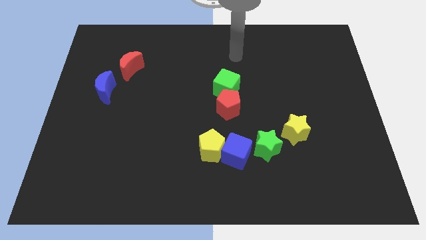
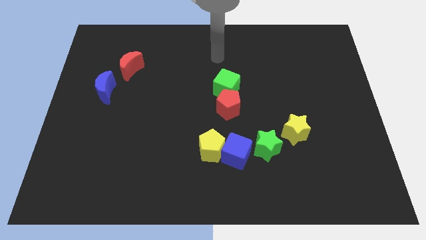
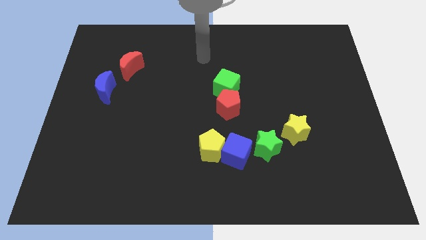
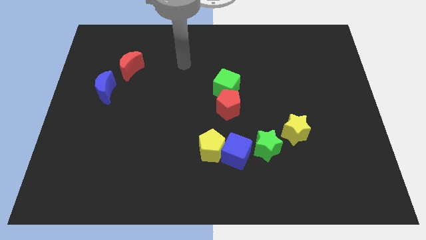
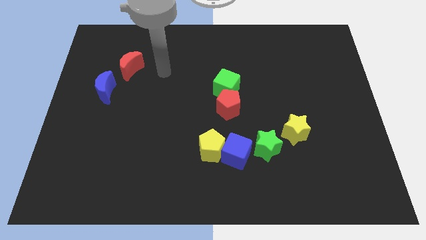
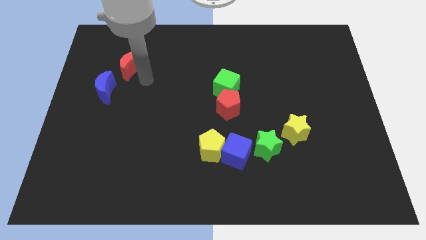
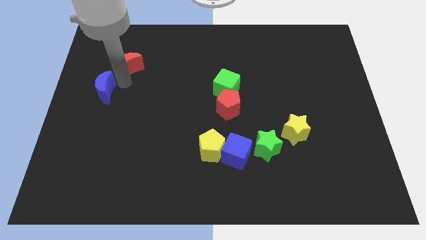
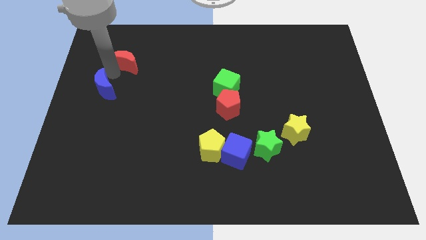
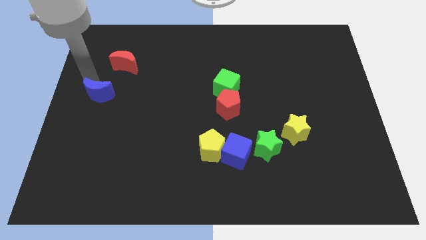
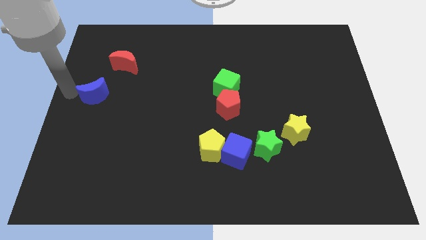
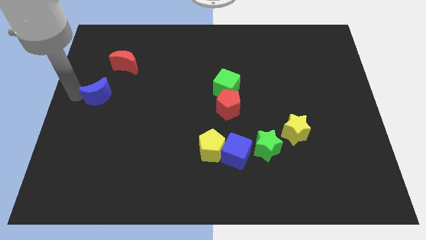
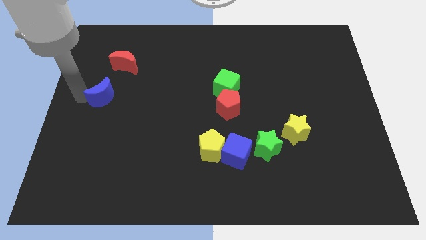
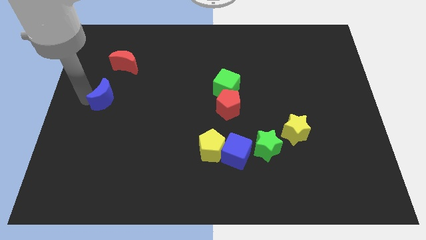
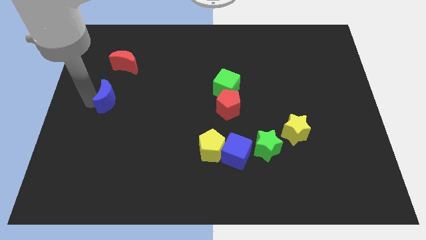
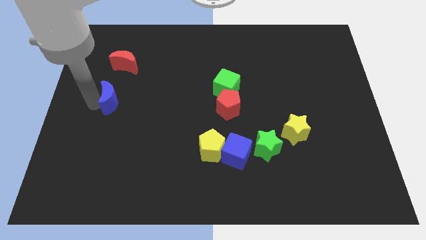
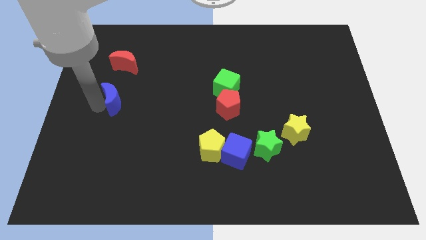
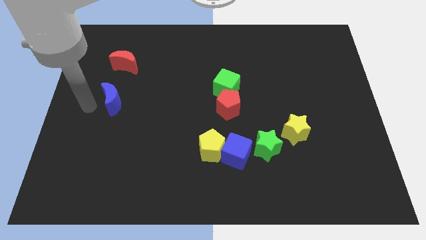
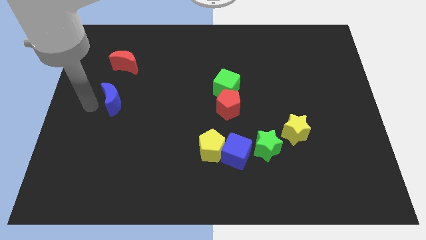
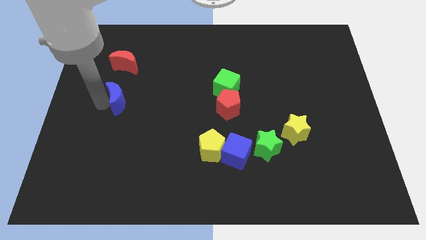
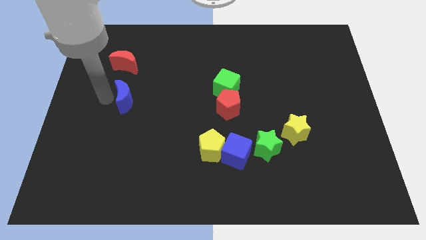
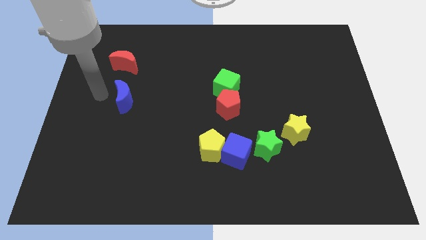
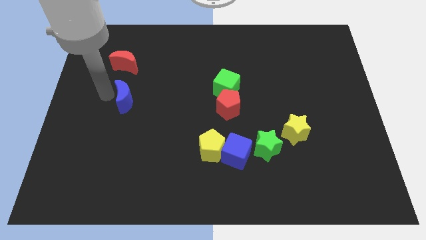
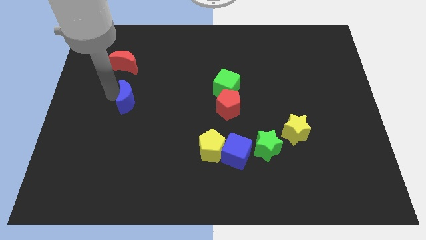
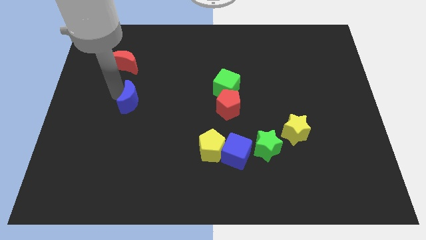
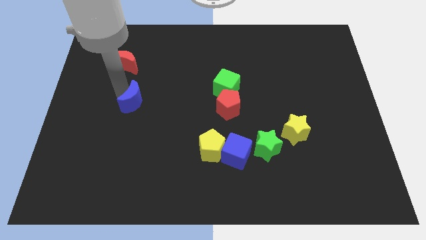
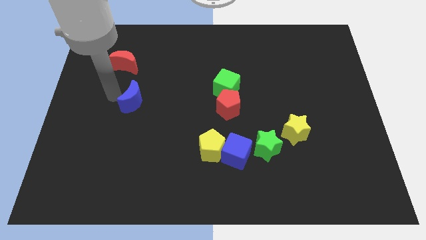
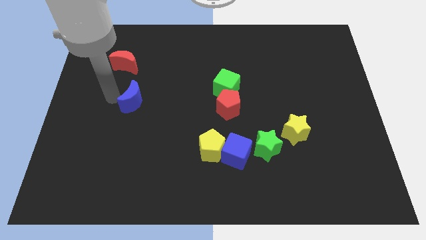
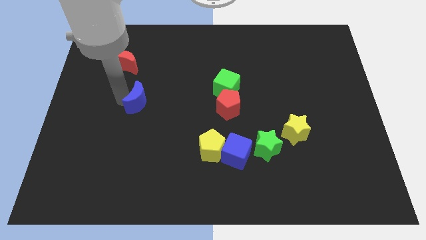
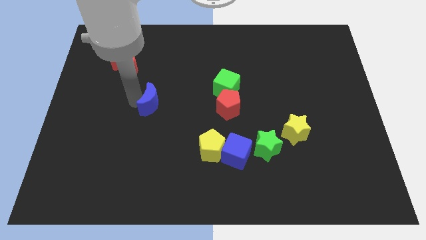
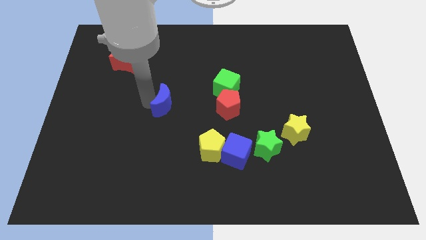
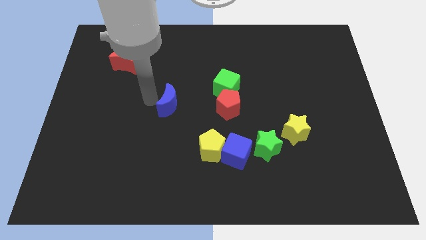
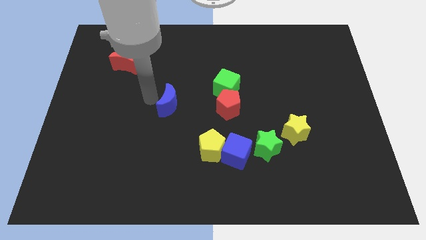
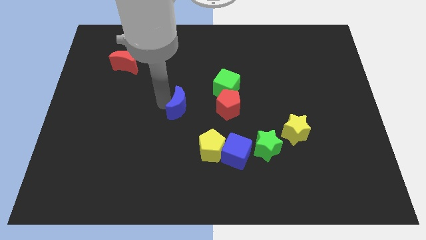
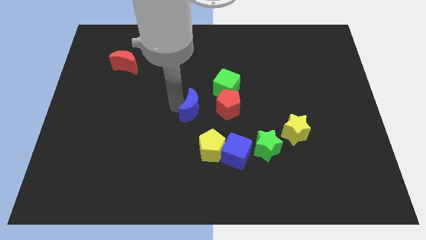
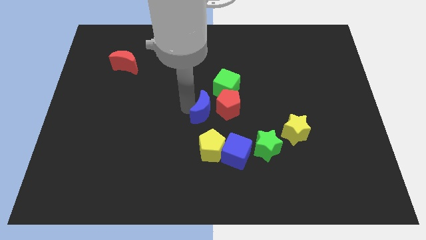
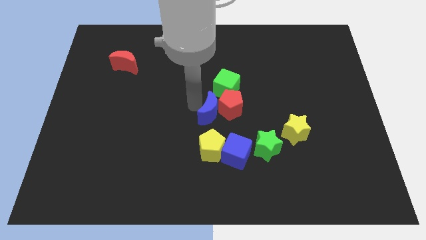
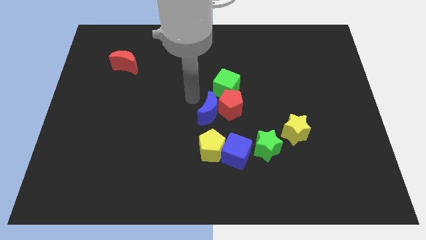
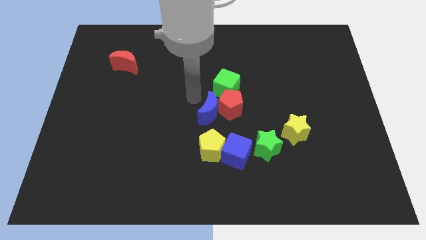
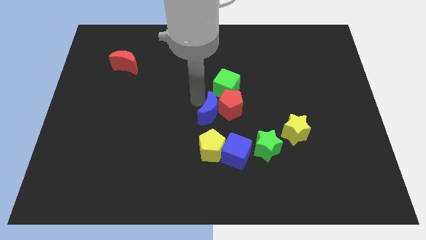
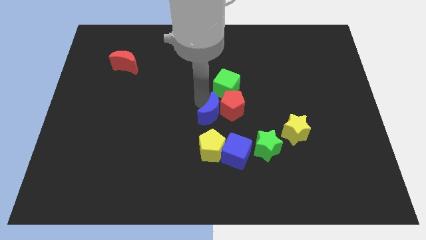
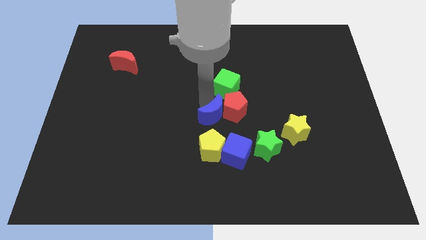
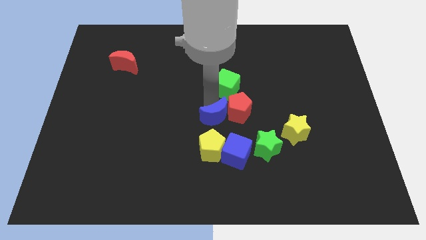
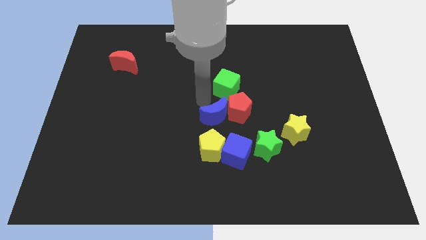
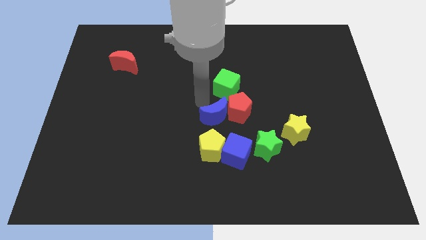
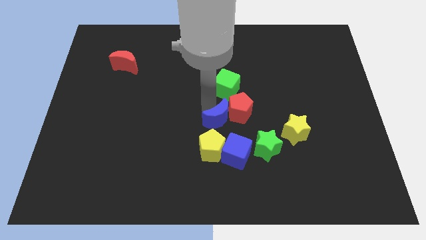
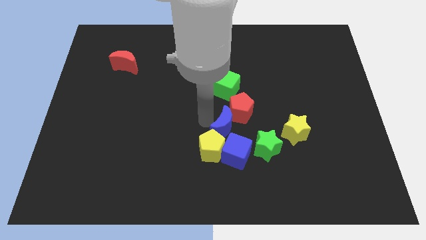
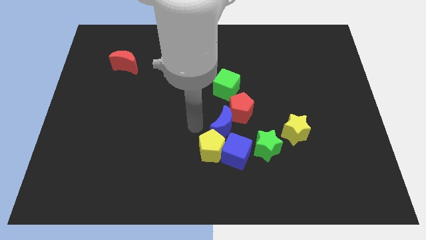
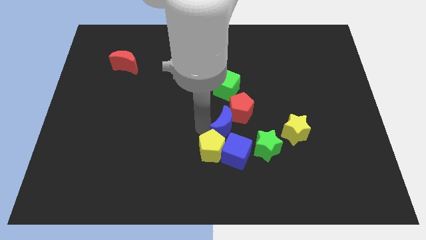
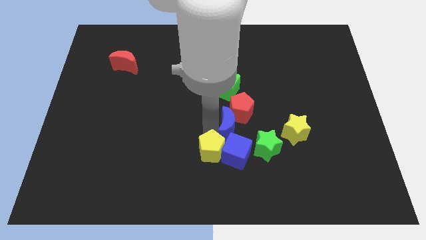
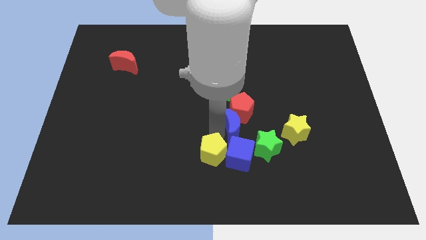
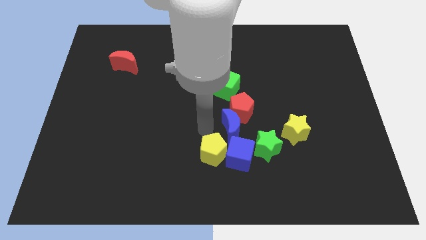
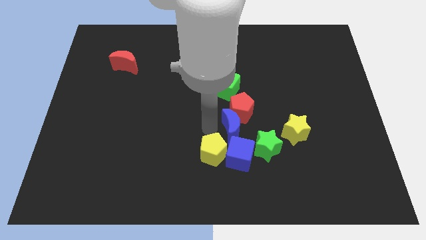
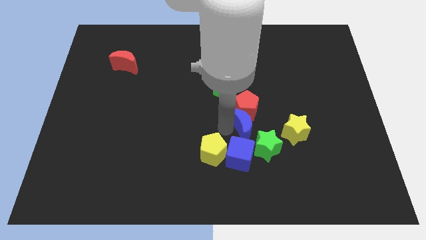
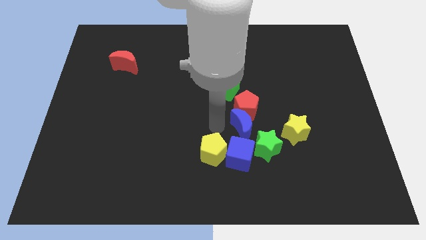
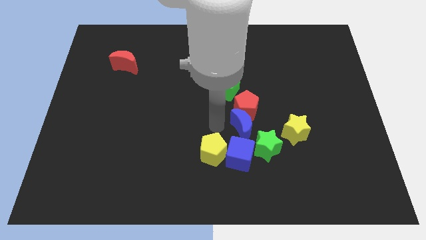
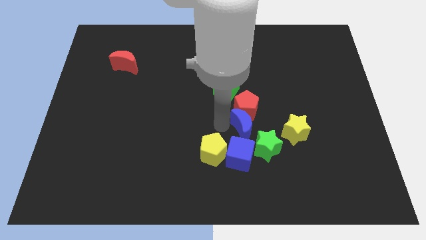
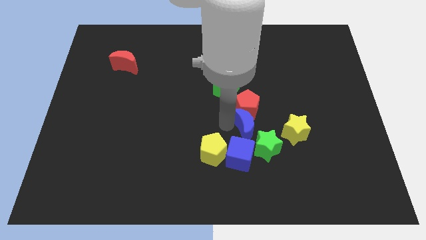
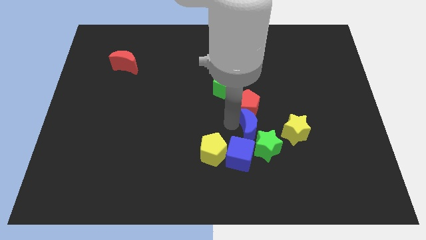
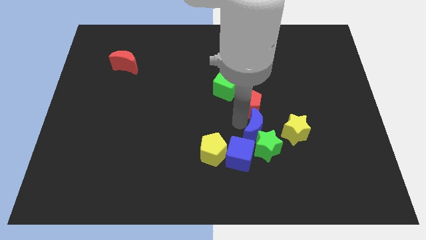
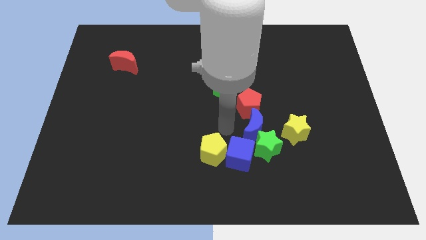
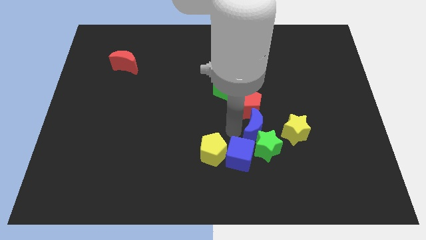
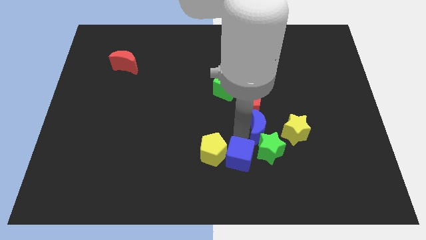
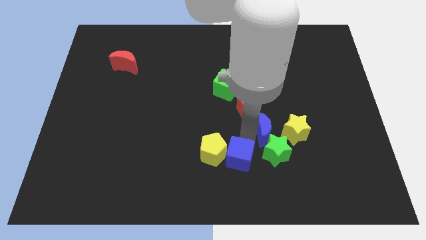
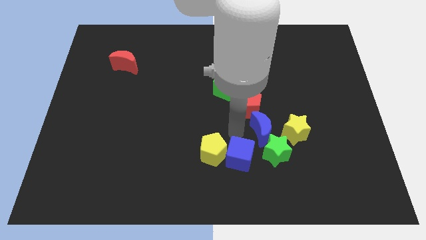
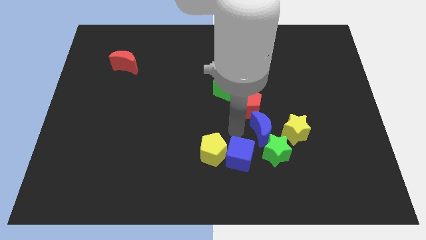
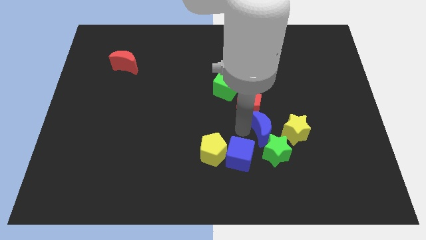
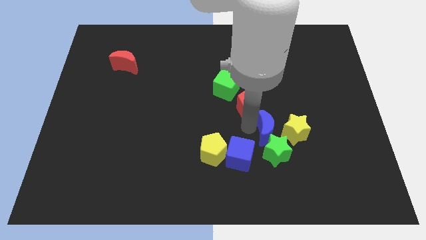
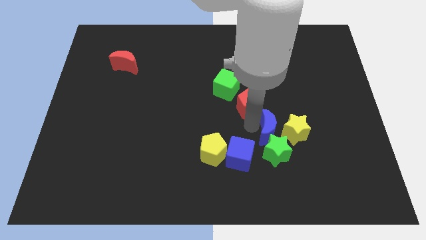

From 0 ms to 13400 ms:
slide the blue moon close to the yellow star
